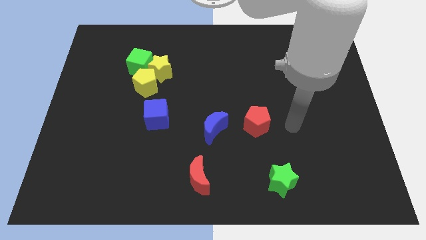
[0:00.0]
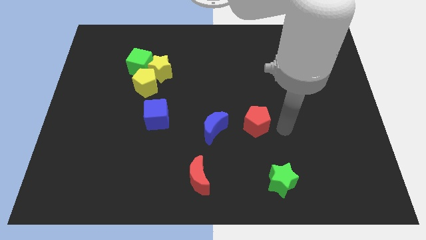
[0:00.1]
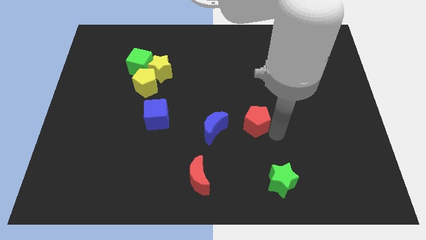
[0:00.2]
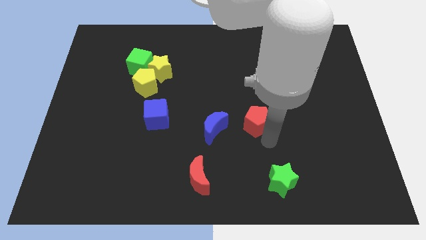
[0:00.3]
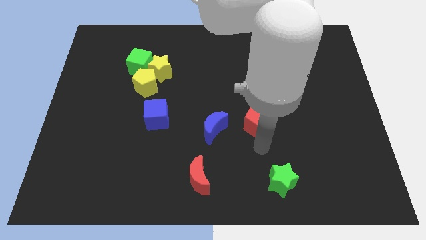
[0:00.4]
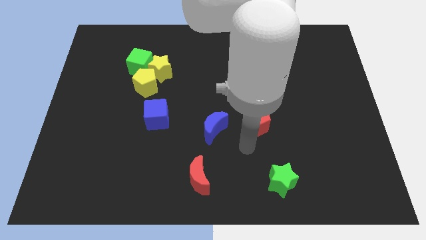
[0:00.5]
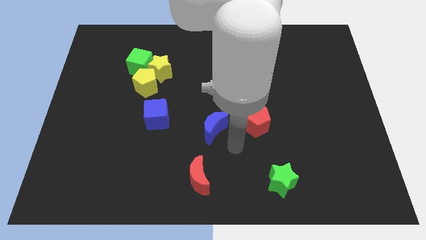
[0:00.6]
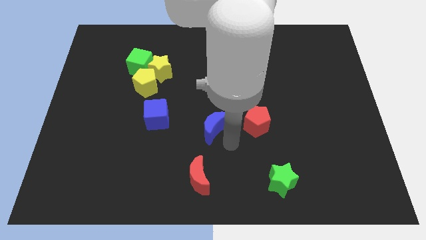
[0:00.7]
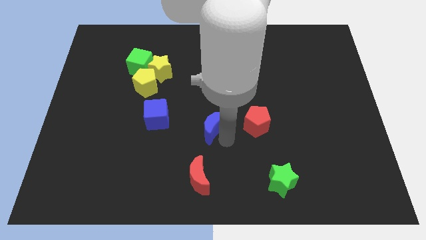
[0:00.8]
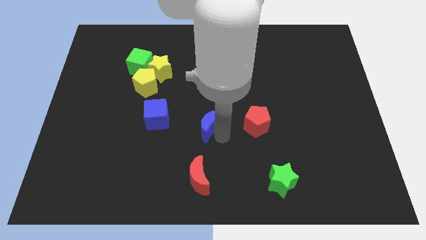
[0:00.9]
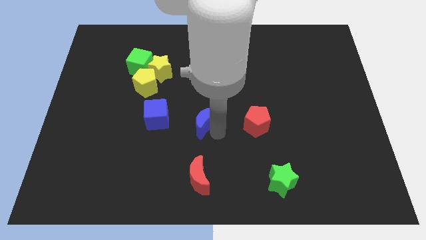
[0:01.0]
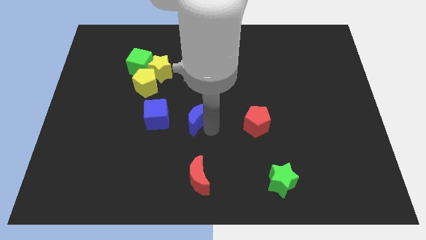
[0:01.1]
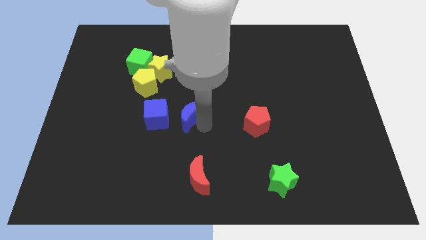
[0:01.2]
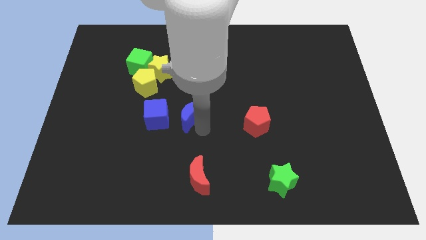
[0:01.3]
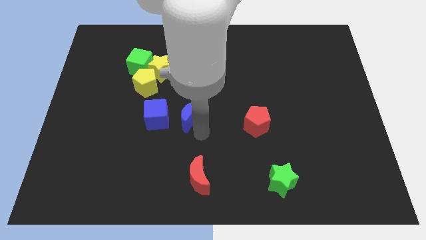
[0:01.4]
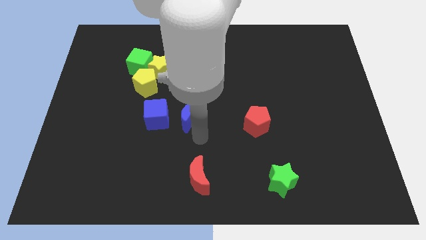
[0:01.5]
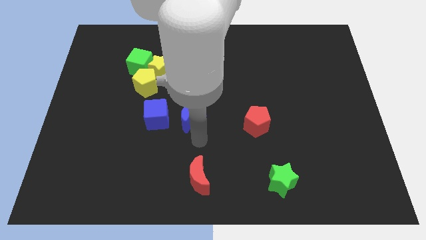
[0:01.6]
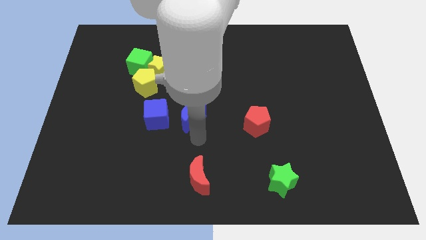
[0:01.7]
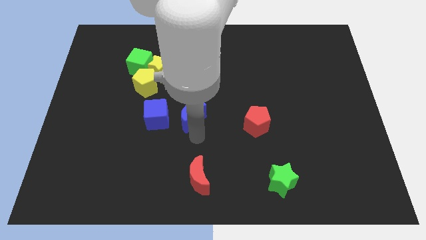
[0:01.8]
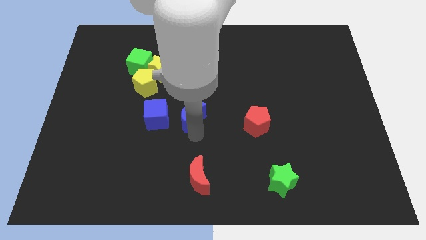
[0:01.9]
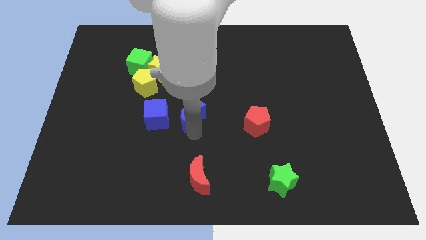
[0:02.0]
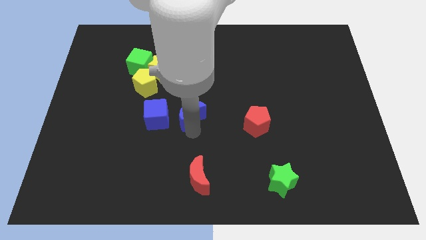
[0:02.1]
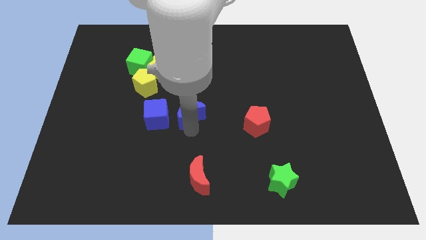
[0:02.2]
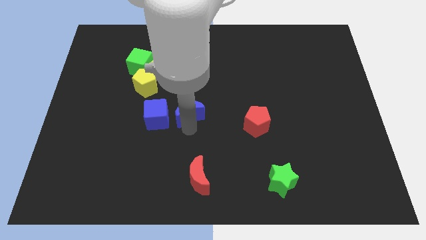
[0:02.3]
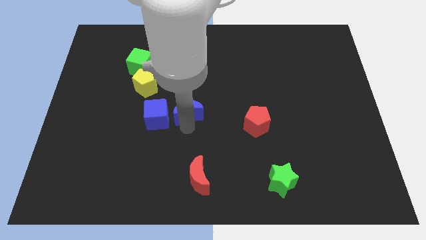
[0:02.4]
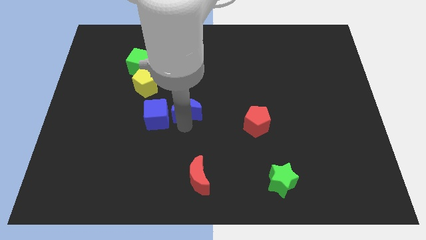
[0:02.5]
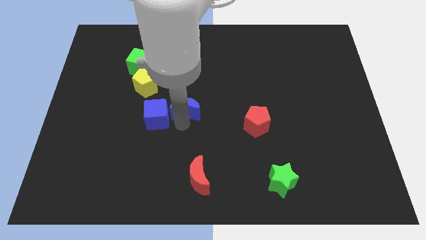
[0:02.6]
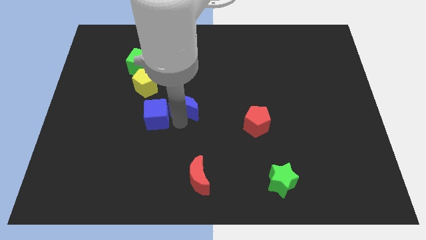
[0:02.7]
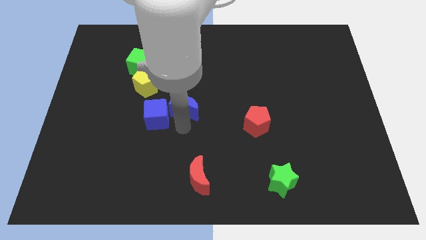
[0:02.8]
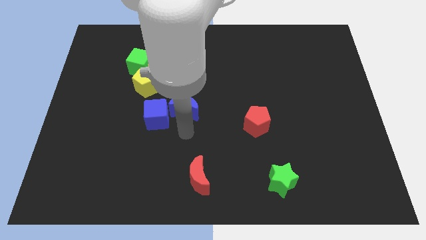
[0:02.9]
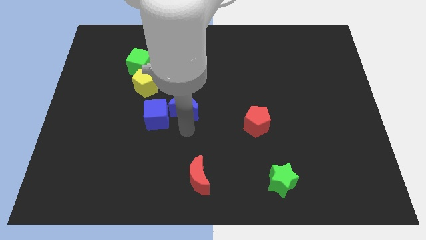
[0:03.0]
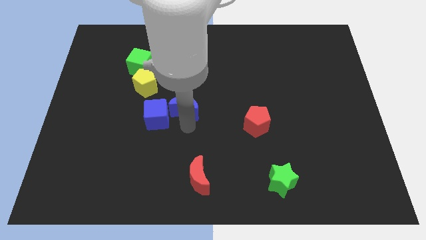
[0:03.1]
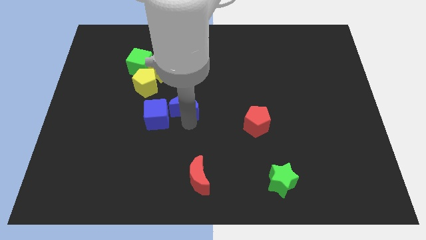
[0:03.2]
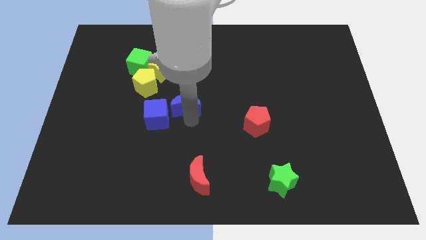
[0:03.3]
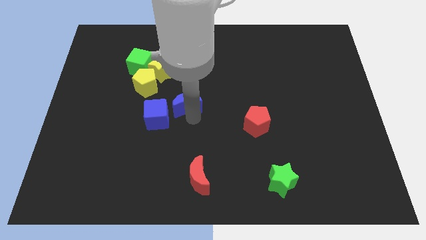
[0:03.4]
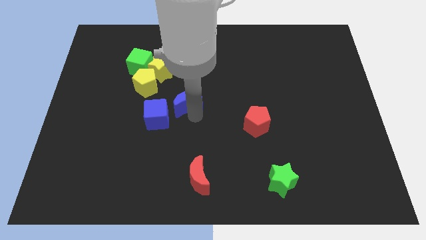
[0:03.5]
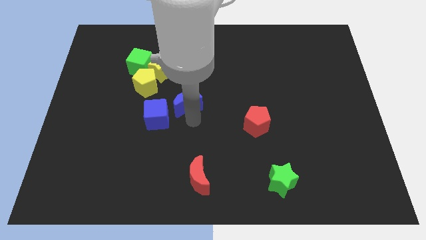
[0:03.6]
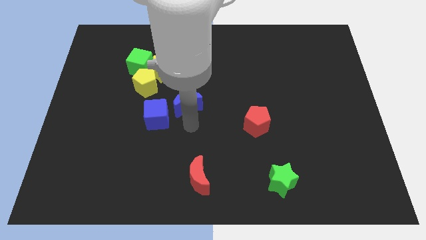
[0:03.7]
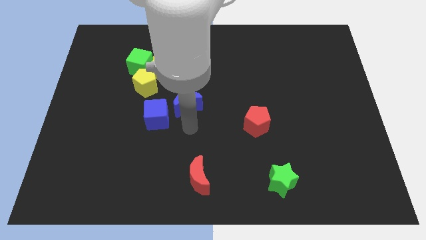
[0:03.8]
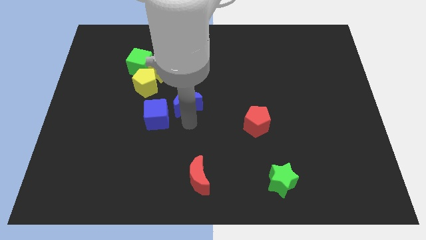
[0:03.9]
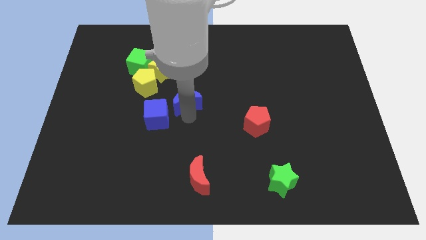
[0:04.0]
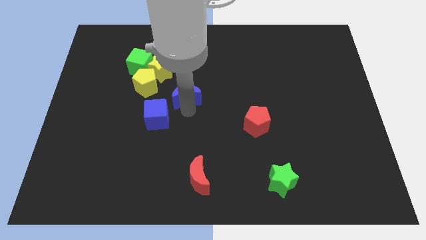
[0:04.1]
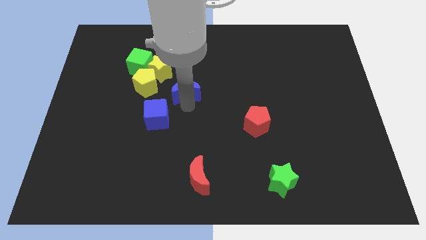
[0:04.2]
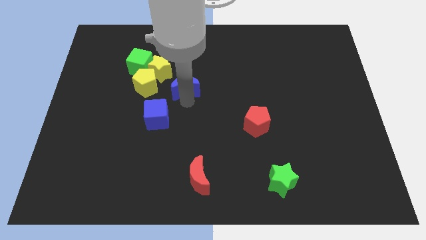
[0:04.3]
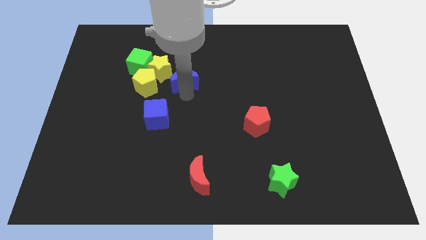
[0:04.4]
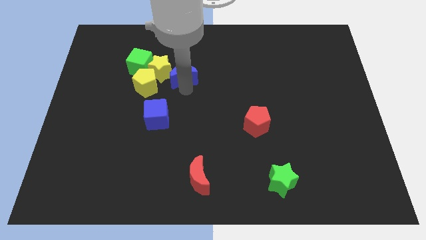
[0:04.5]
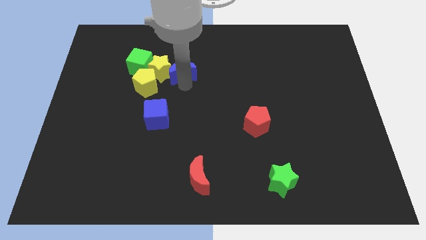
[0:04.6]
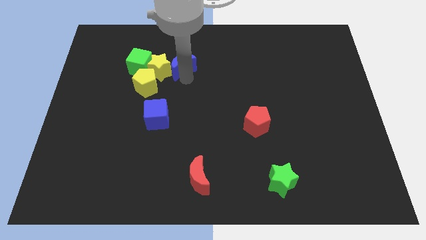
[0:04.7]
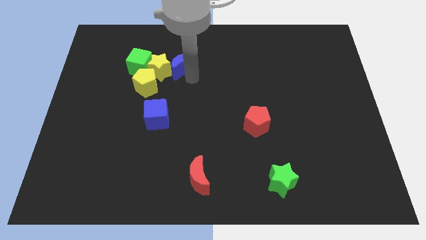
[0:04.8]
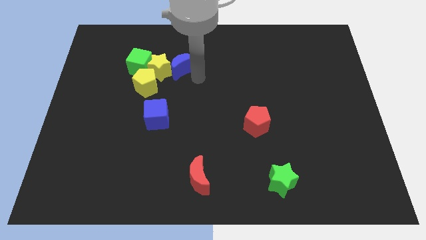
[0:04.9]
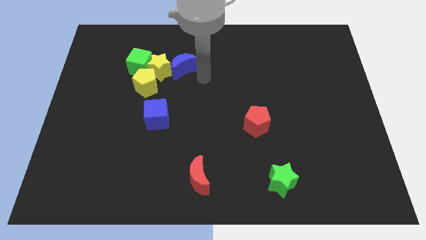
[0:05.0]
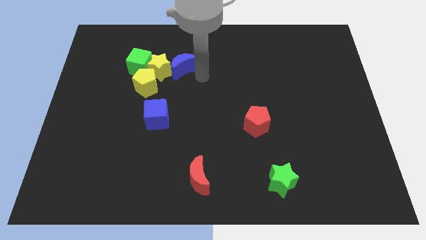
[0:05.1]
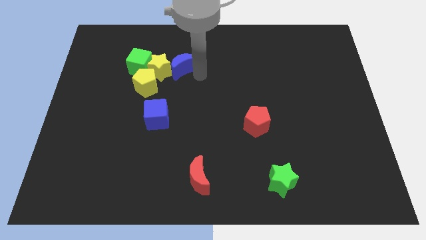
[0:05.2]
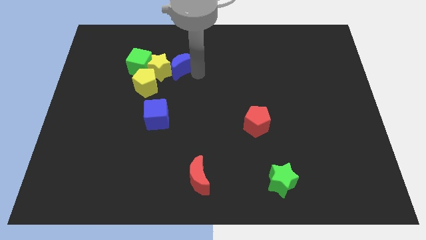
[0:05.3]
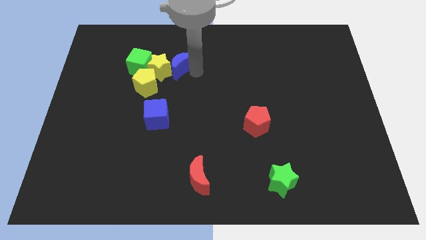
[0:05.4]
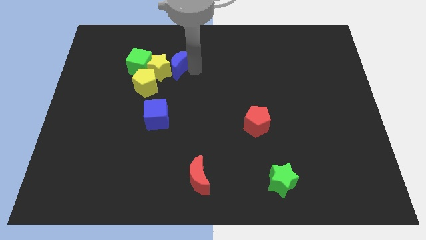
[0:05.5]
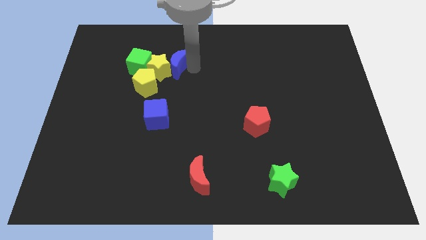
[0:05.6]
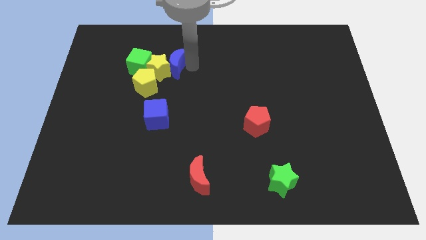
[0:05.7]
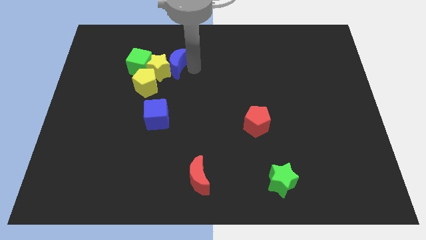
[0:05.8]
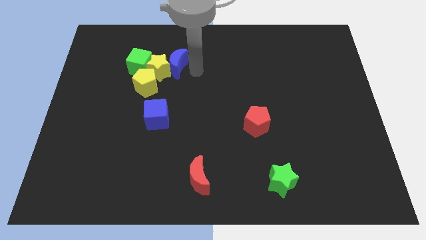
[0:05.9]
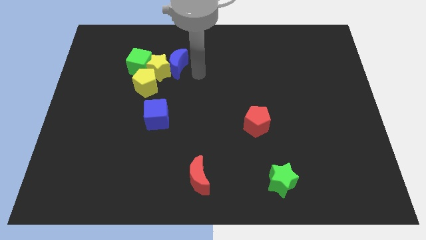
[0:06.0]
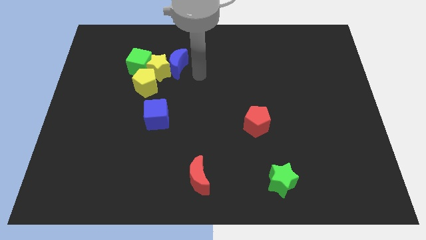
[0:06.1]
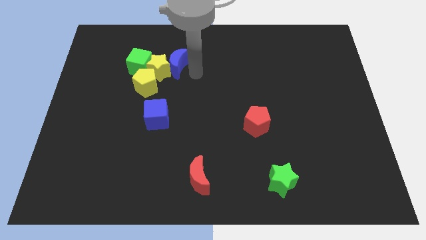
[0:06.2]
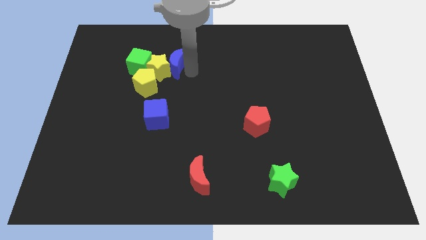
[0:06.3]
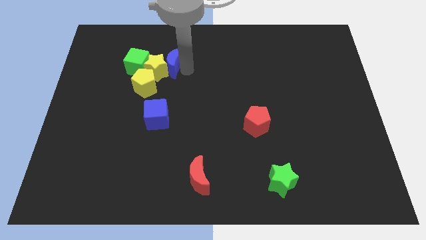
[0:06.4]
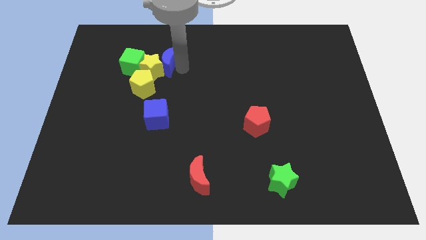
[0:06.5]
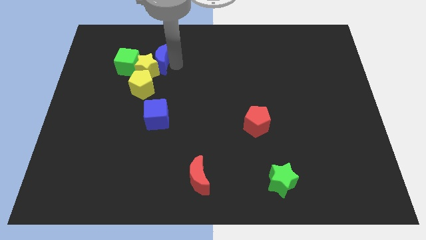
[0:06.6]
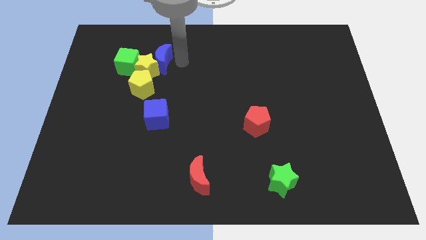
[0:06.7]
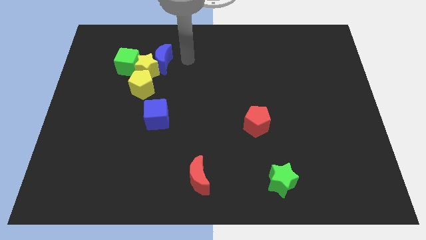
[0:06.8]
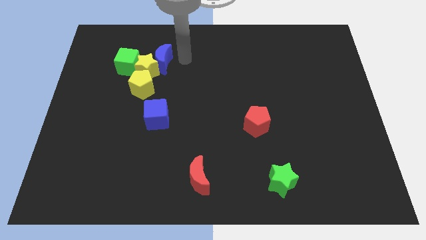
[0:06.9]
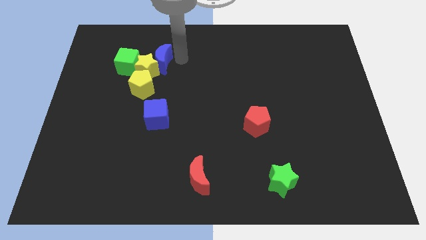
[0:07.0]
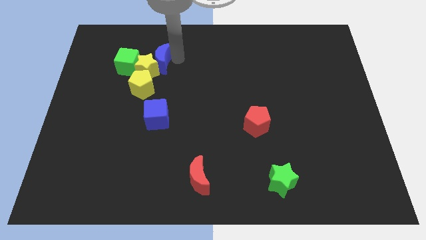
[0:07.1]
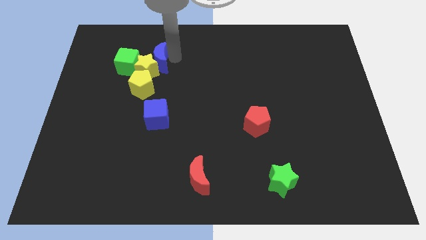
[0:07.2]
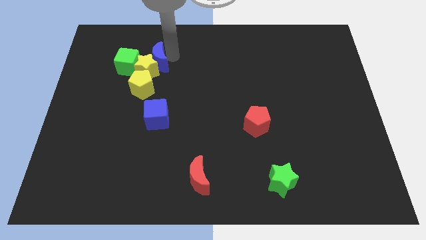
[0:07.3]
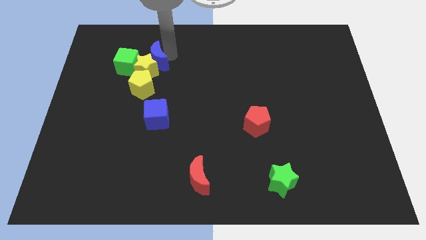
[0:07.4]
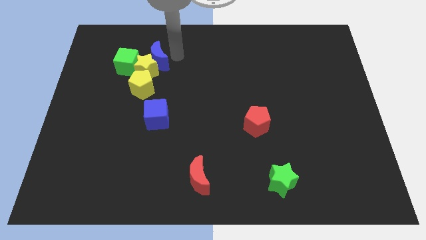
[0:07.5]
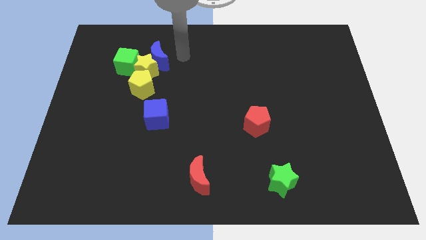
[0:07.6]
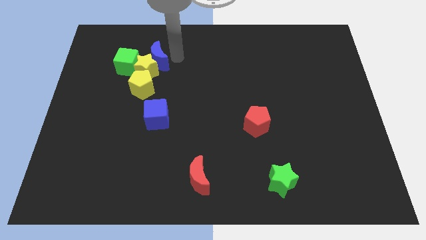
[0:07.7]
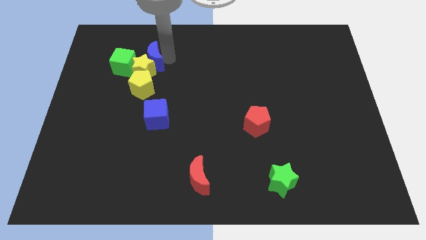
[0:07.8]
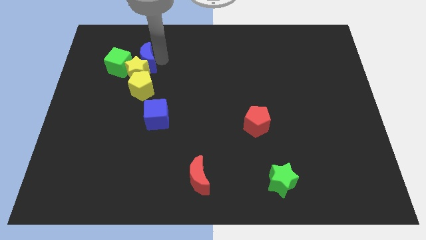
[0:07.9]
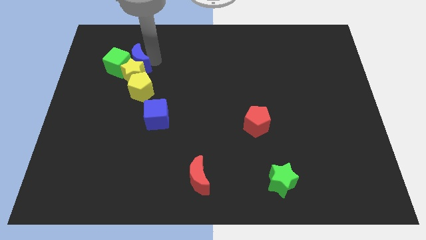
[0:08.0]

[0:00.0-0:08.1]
push the blue moon towards the green cube
